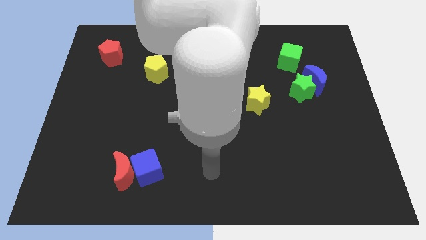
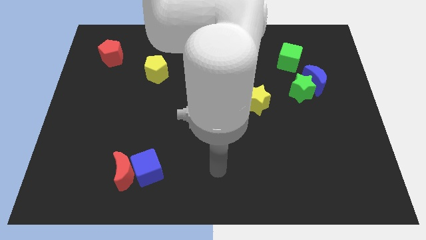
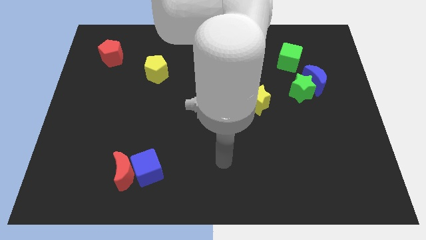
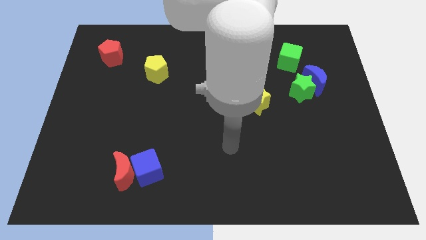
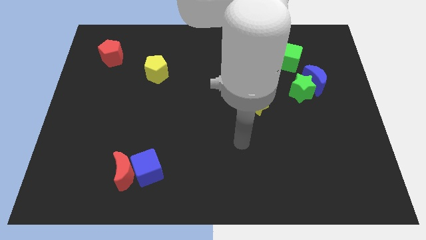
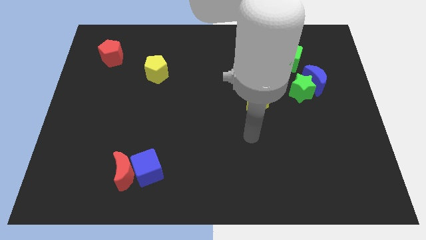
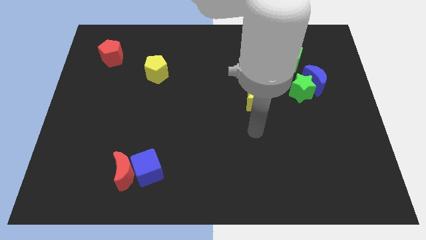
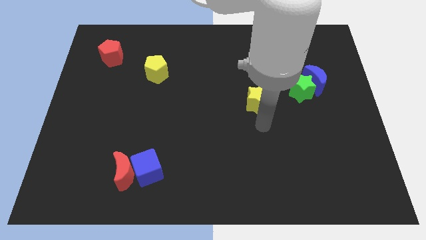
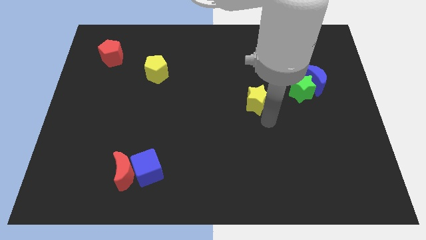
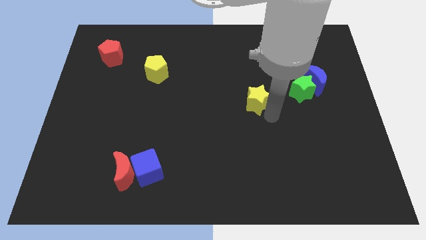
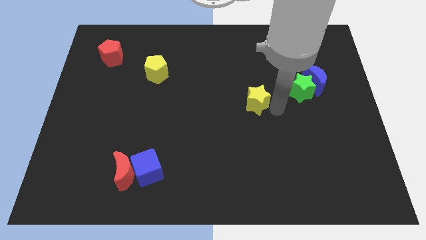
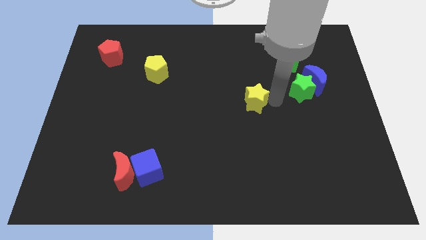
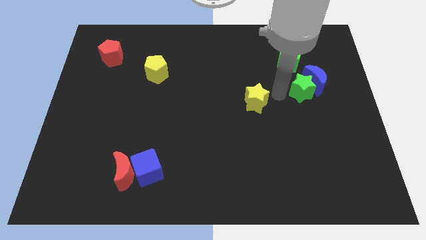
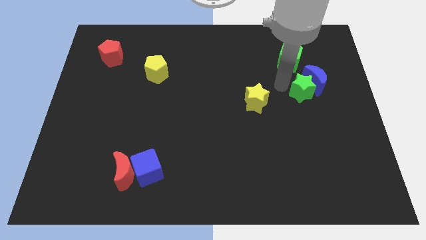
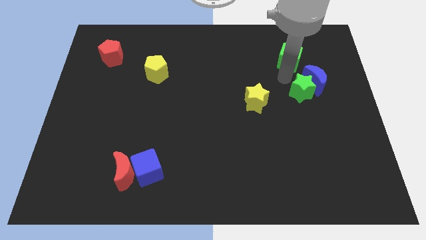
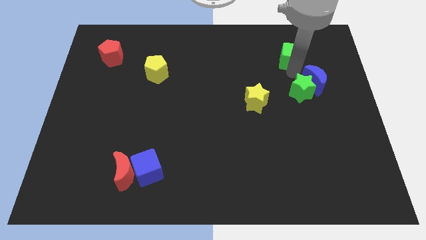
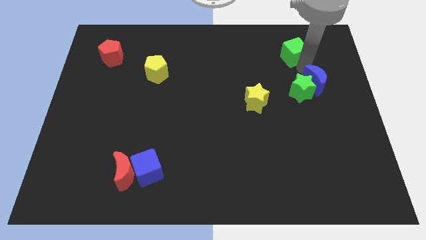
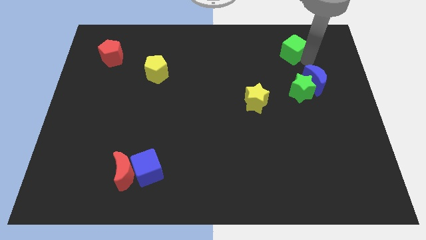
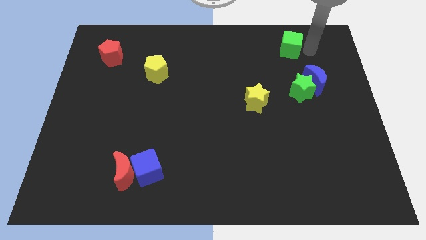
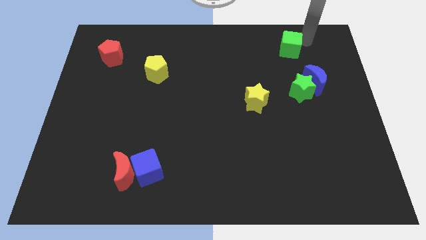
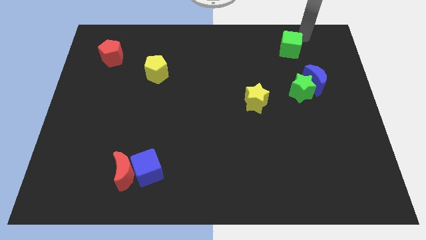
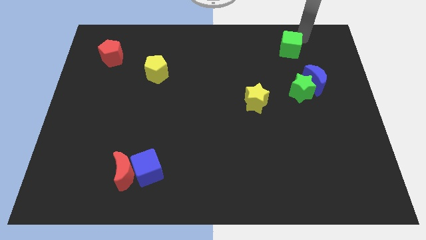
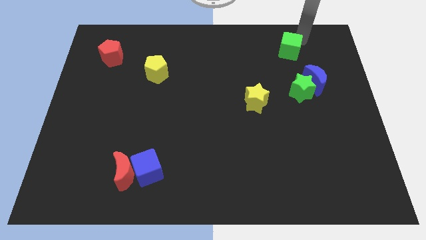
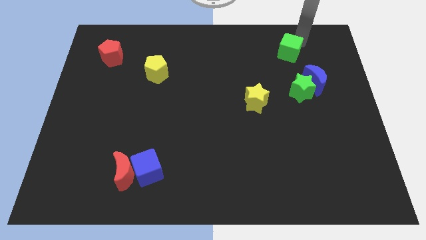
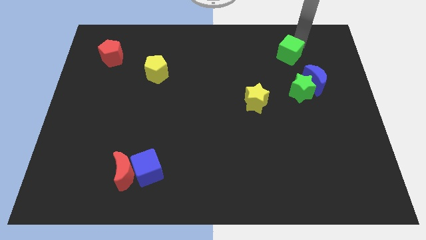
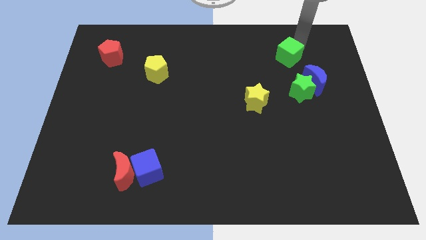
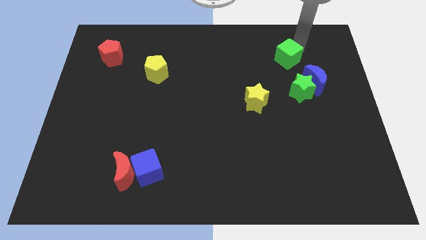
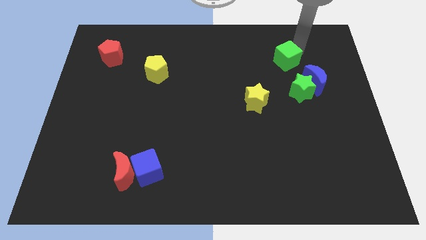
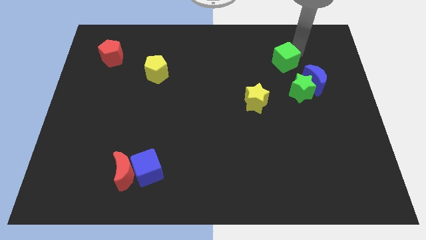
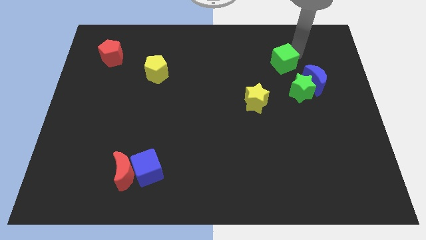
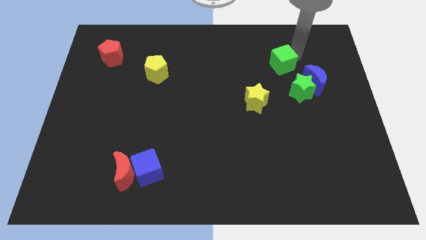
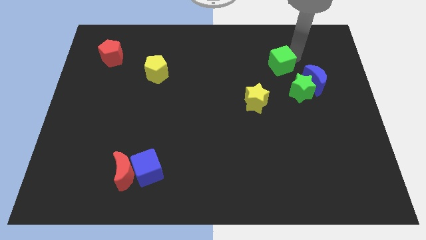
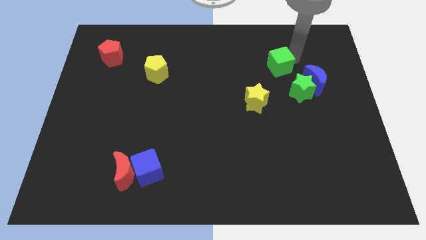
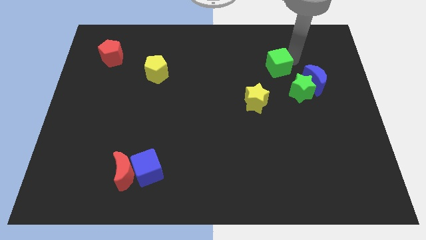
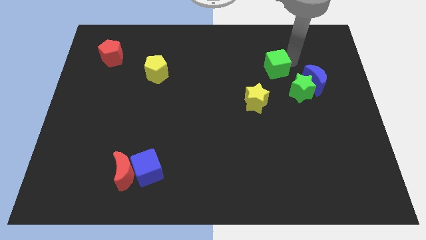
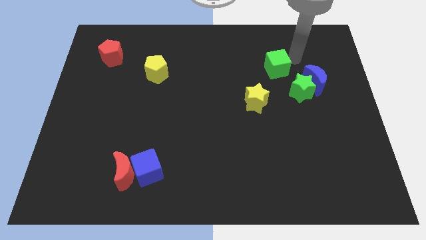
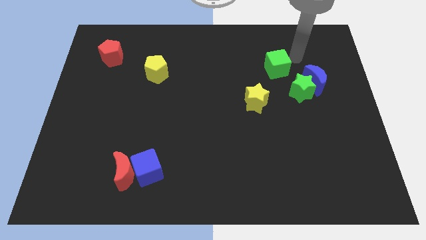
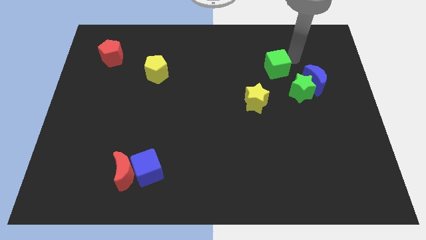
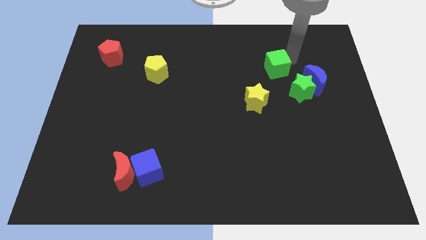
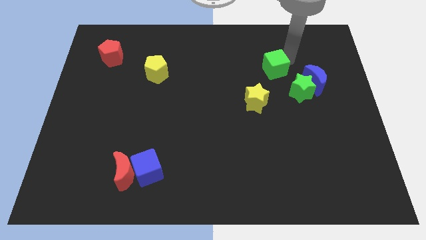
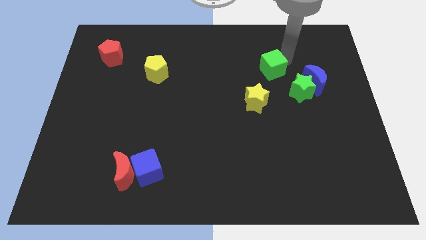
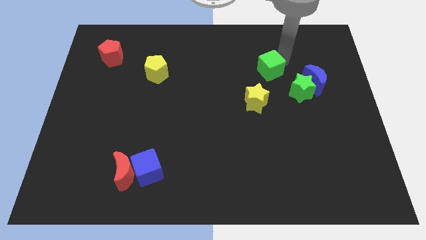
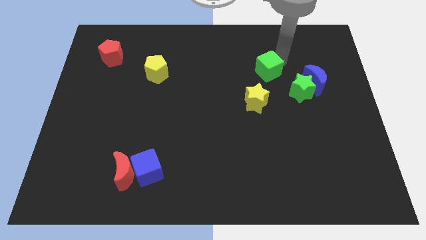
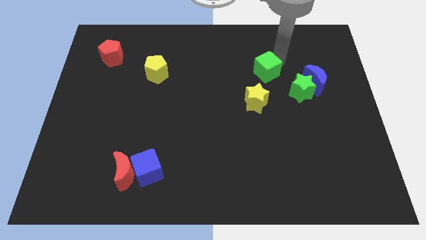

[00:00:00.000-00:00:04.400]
slide the green cube slightly downwards and to the left diagonally

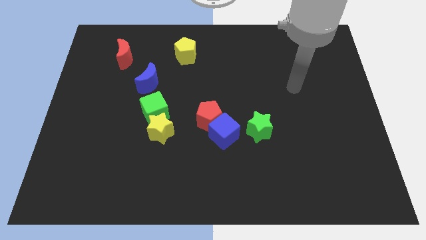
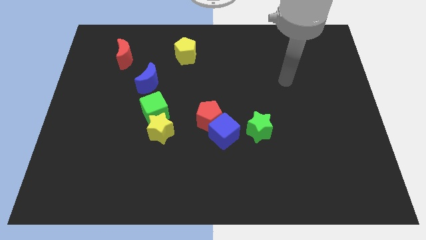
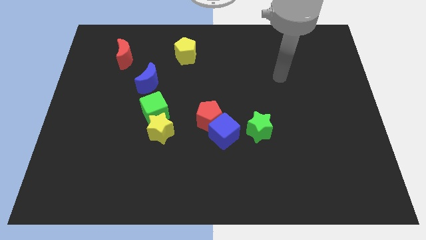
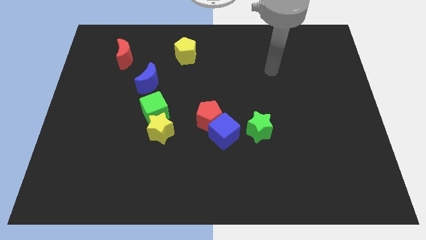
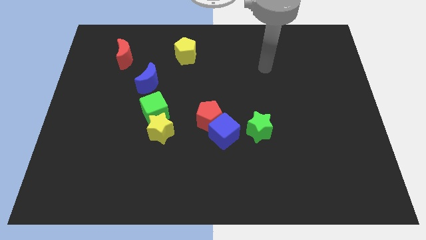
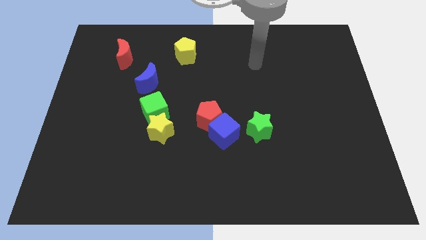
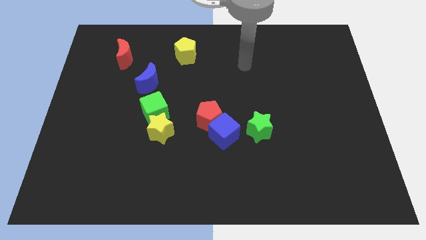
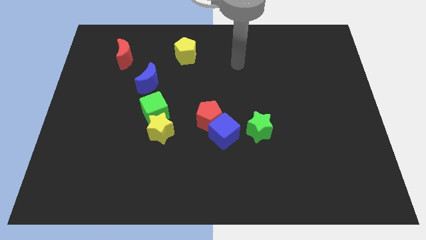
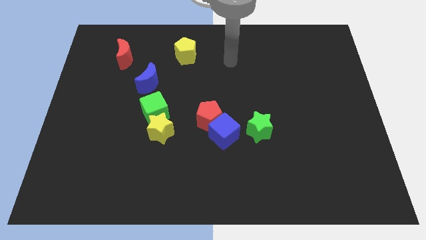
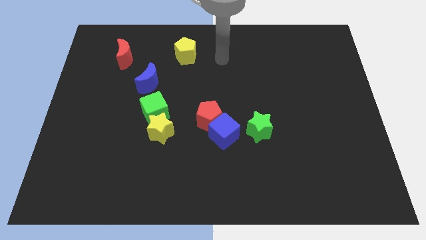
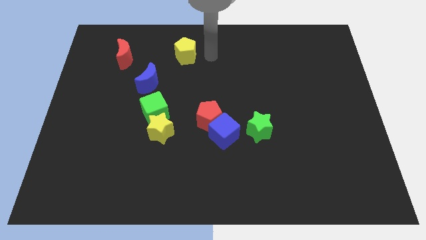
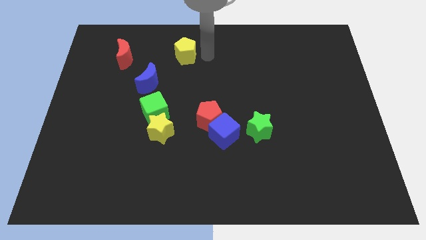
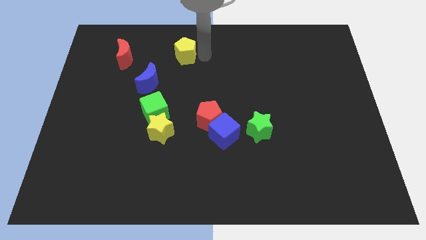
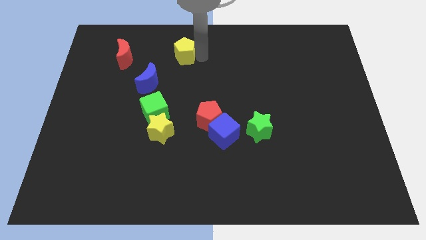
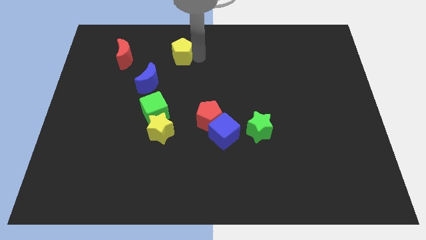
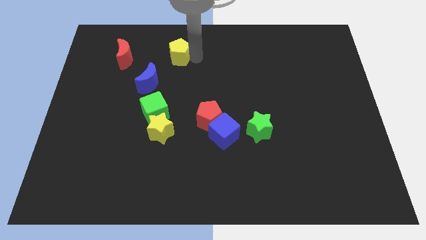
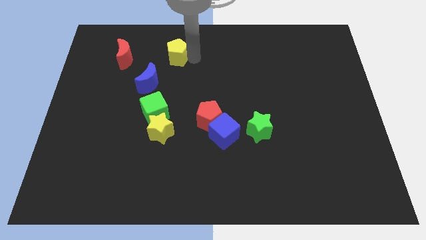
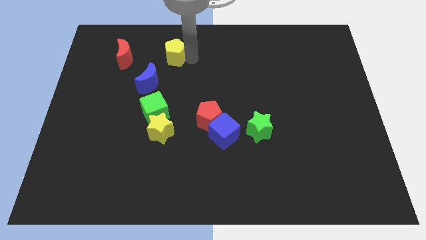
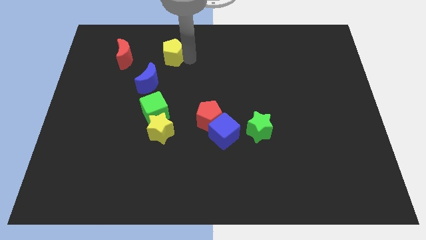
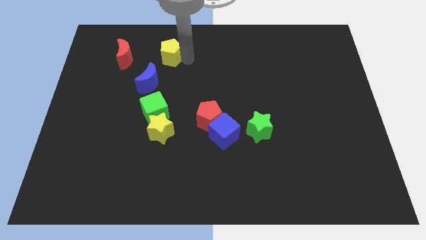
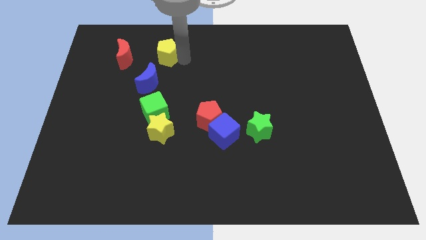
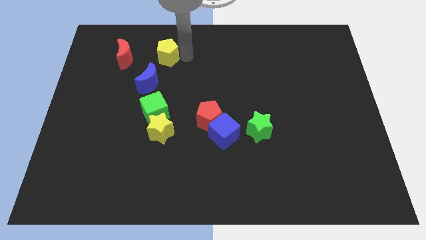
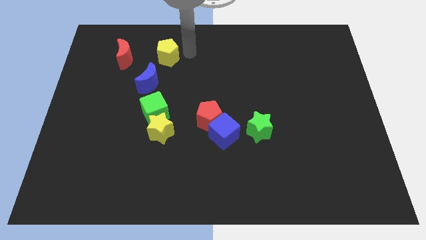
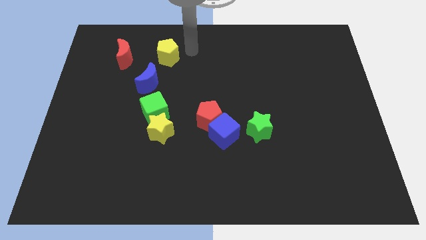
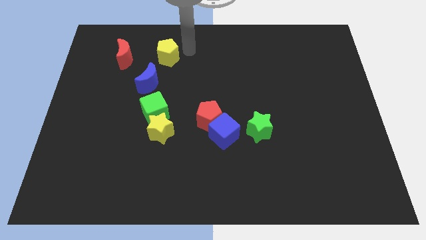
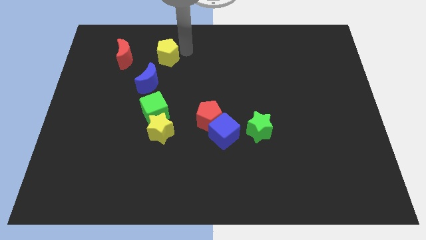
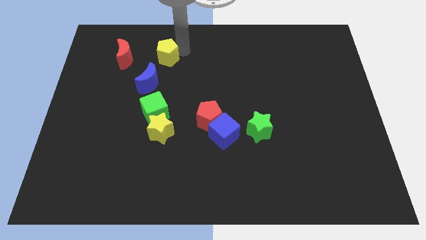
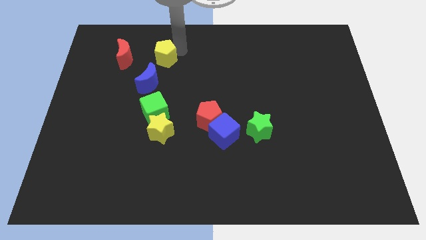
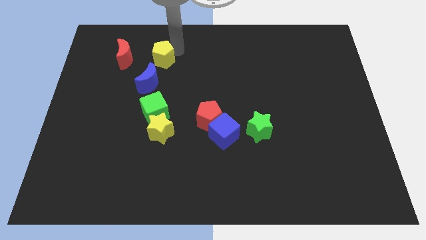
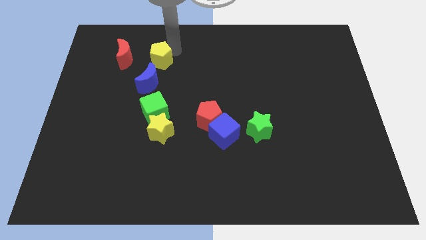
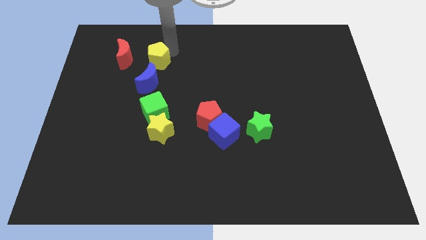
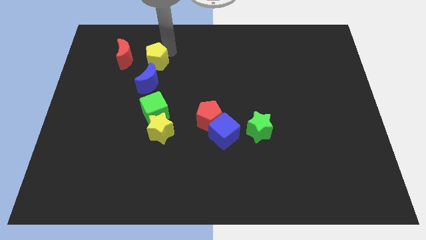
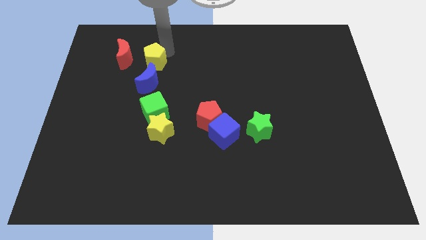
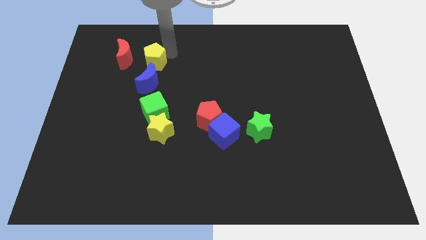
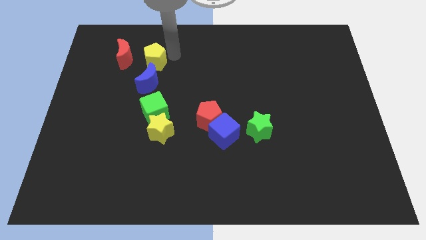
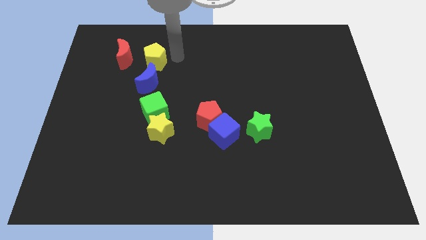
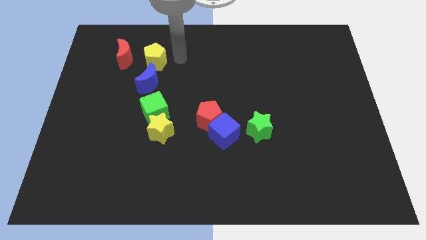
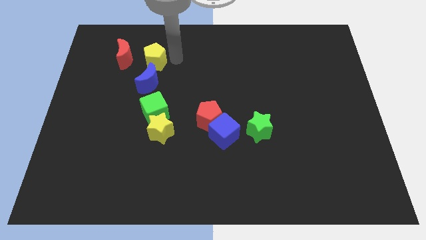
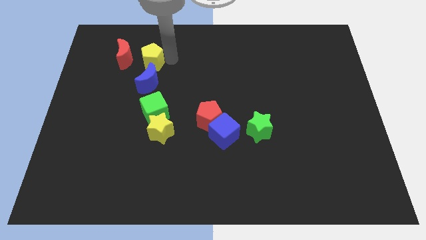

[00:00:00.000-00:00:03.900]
push the yellow pentagon somewhat down and to the left
